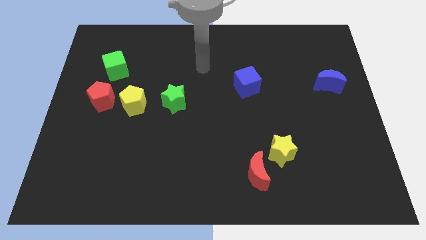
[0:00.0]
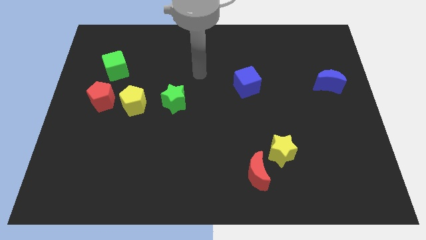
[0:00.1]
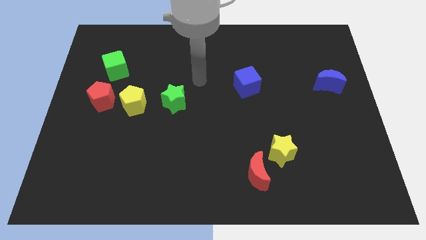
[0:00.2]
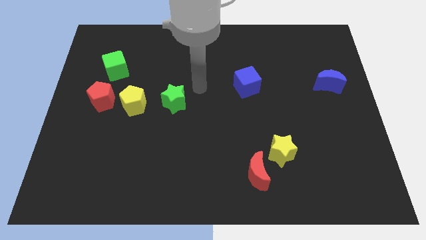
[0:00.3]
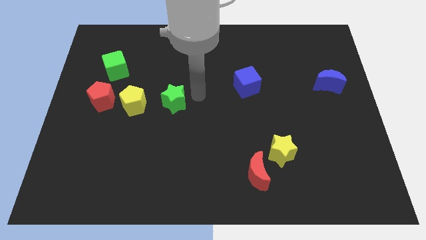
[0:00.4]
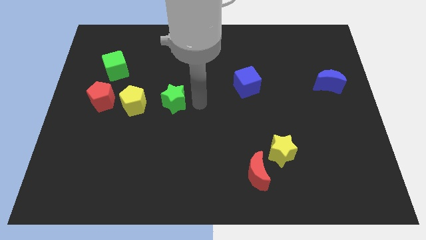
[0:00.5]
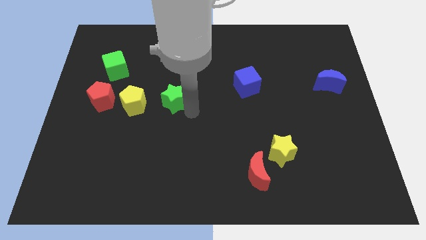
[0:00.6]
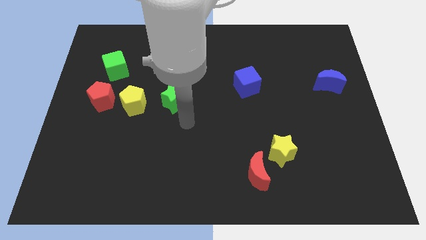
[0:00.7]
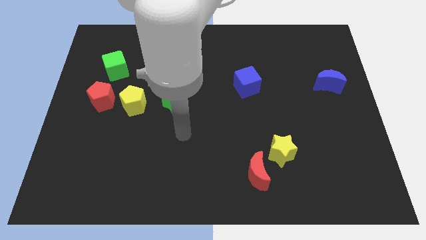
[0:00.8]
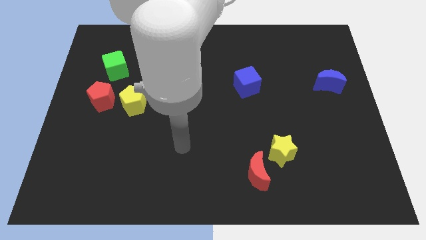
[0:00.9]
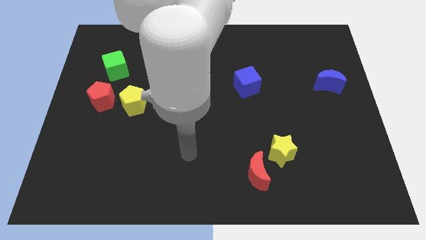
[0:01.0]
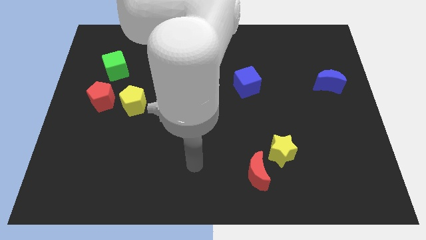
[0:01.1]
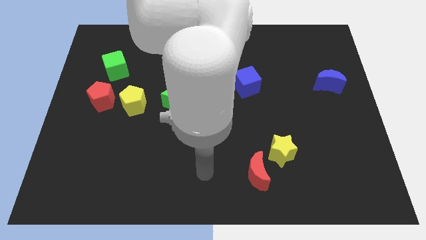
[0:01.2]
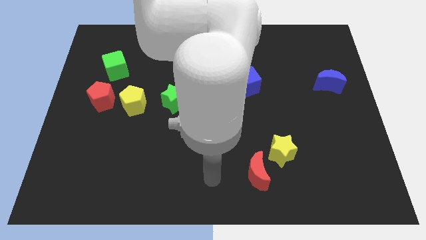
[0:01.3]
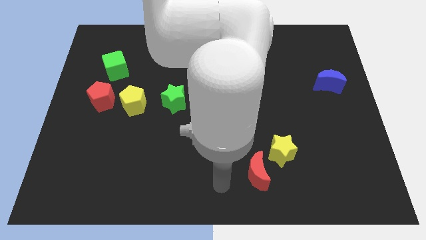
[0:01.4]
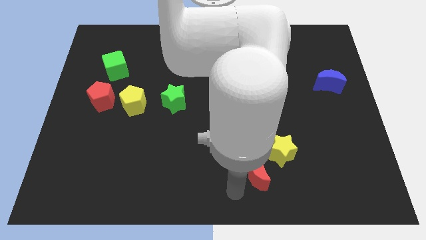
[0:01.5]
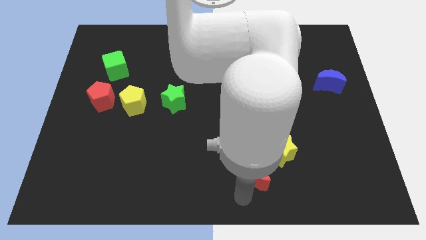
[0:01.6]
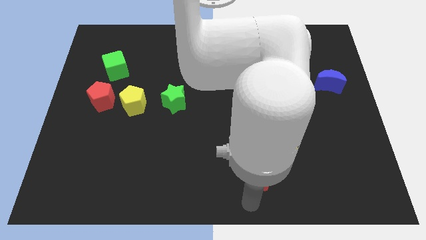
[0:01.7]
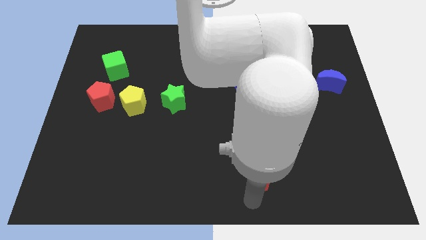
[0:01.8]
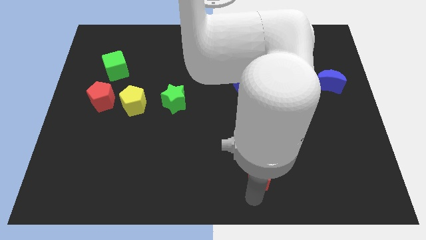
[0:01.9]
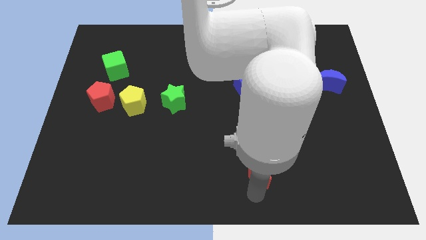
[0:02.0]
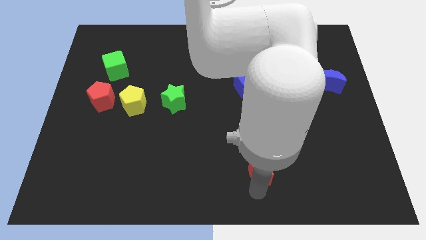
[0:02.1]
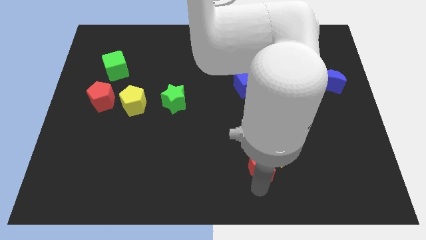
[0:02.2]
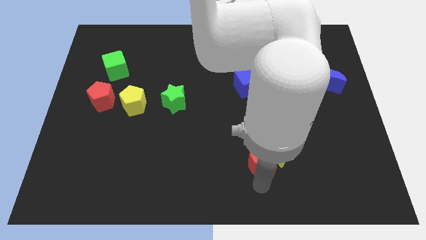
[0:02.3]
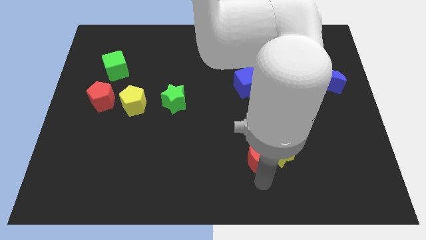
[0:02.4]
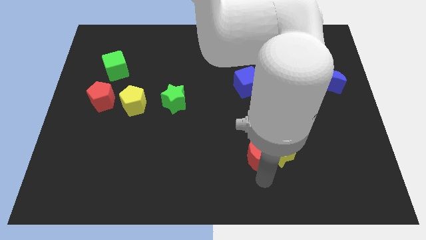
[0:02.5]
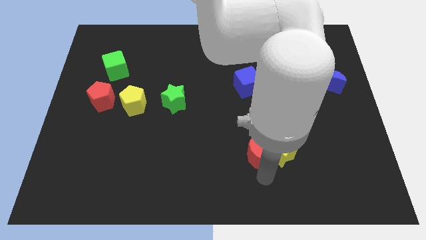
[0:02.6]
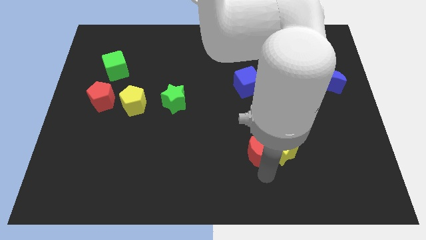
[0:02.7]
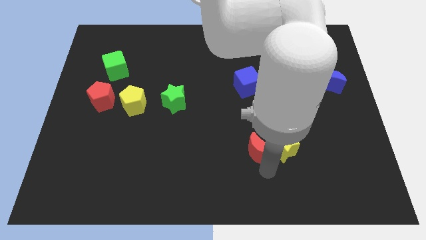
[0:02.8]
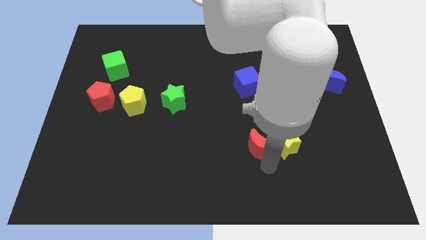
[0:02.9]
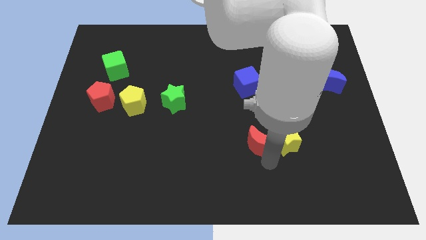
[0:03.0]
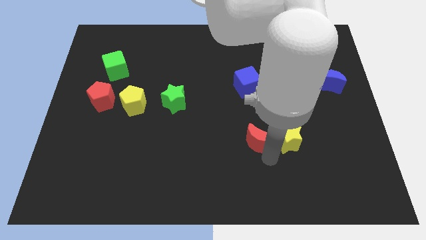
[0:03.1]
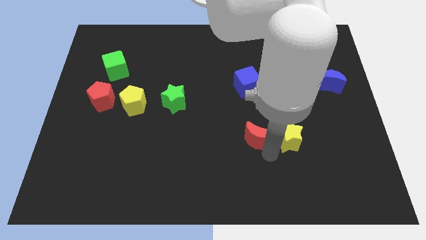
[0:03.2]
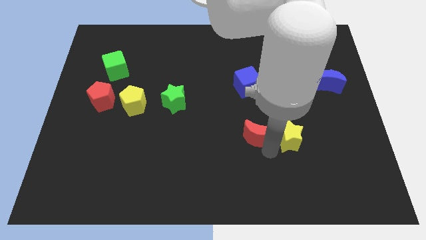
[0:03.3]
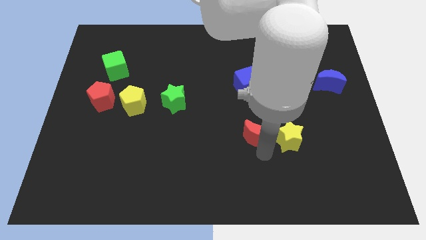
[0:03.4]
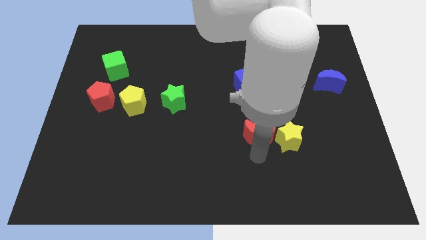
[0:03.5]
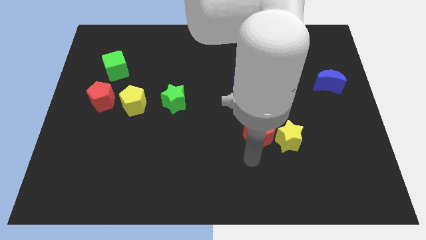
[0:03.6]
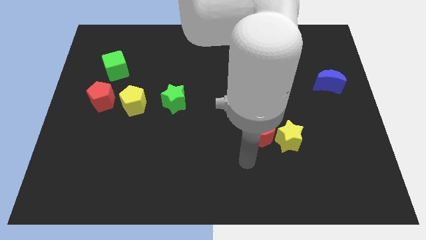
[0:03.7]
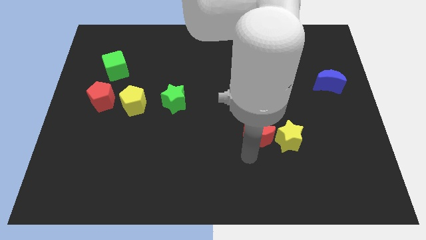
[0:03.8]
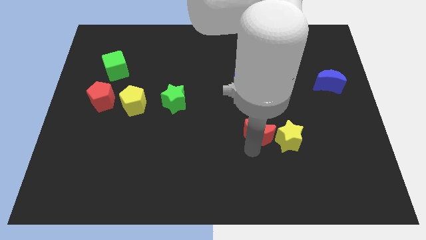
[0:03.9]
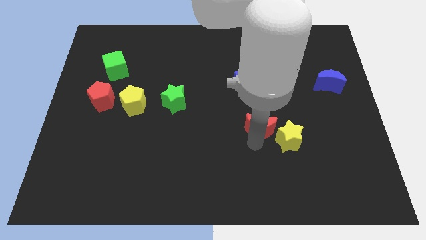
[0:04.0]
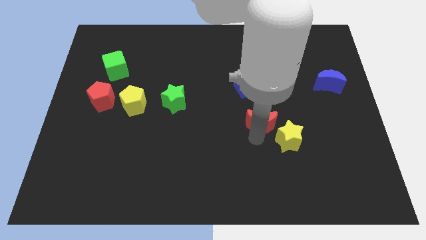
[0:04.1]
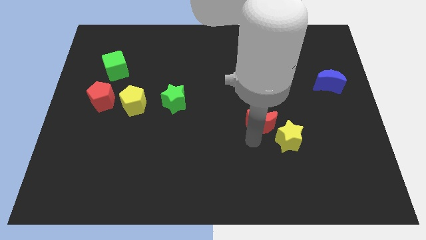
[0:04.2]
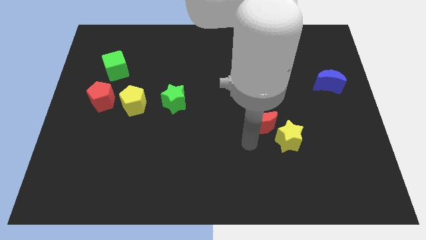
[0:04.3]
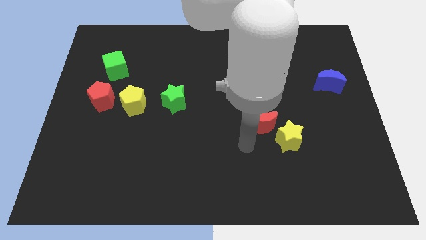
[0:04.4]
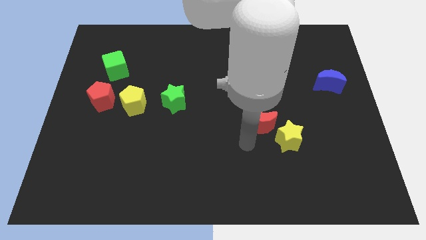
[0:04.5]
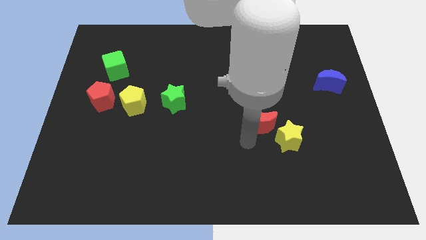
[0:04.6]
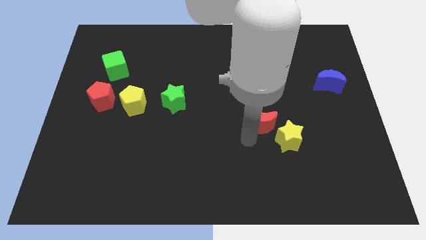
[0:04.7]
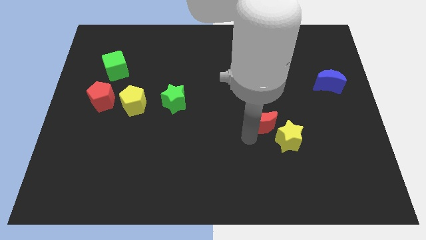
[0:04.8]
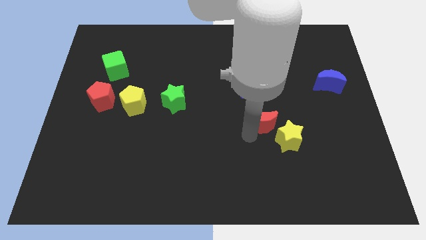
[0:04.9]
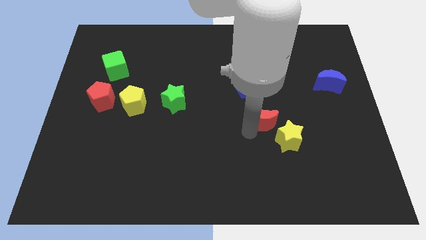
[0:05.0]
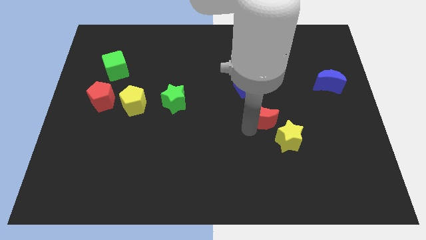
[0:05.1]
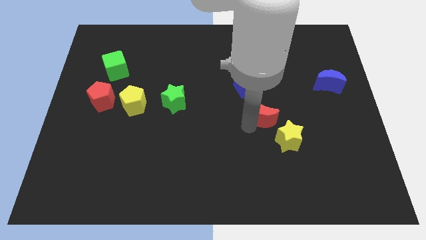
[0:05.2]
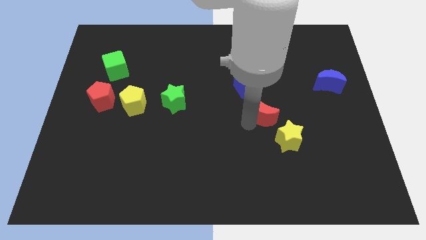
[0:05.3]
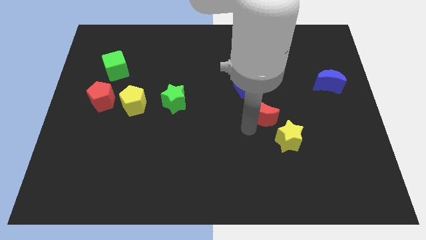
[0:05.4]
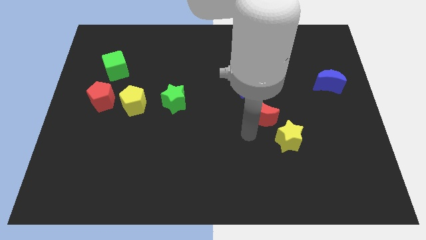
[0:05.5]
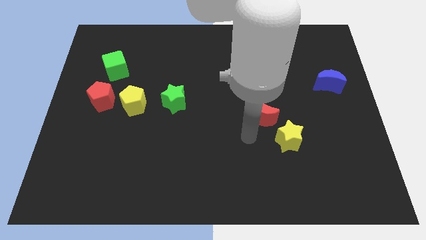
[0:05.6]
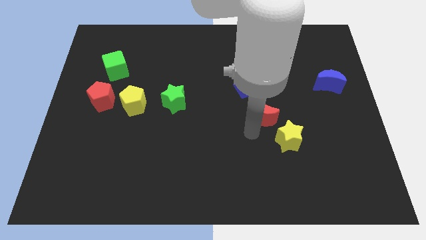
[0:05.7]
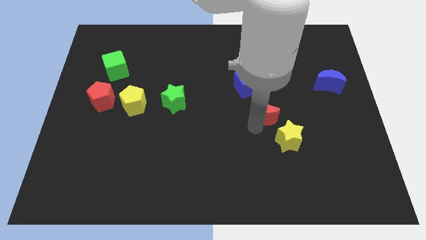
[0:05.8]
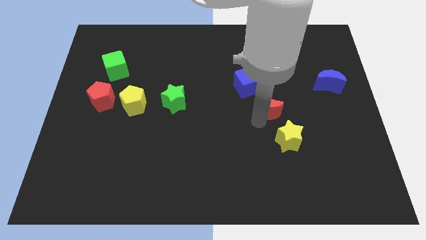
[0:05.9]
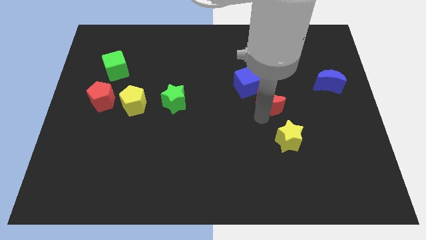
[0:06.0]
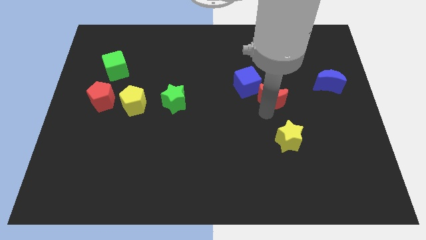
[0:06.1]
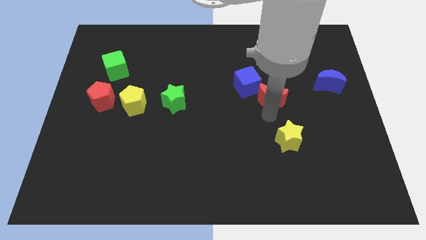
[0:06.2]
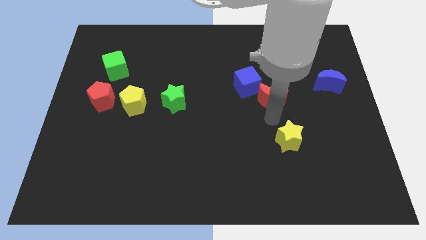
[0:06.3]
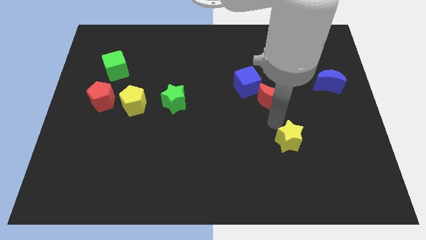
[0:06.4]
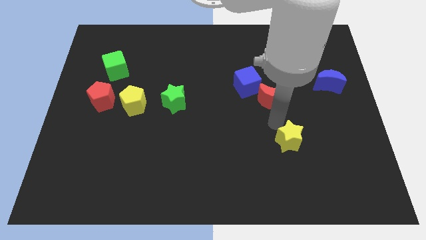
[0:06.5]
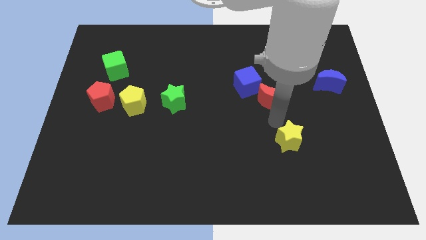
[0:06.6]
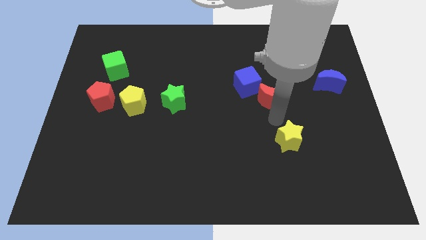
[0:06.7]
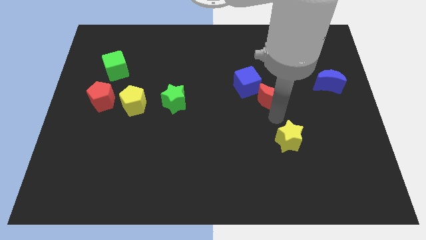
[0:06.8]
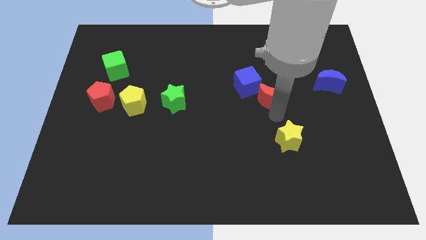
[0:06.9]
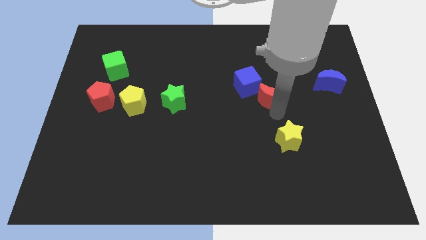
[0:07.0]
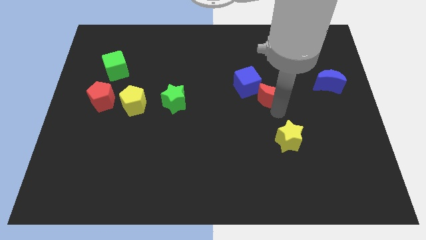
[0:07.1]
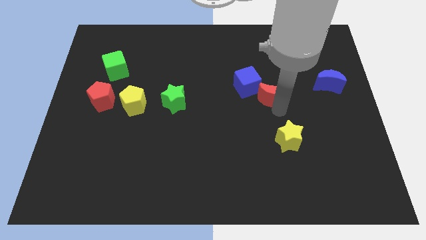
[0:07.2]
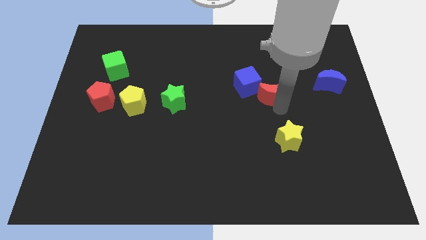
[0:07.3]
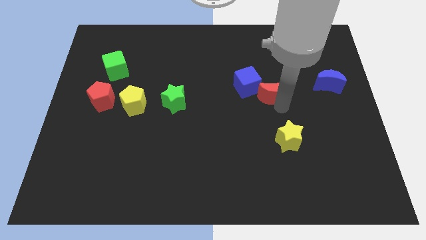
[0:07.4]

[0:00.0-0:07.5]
move the red moon upwards

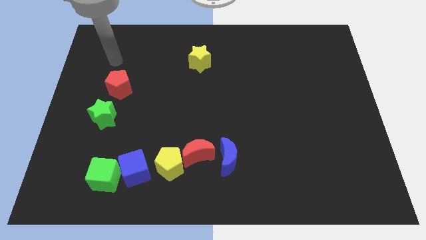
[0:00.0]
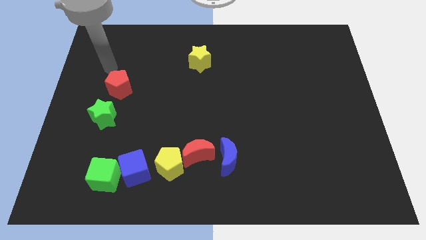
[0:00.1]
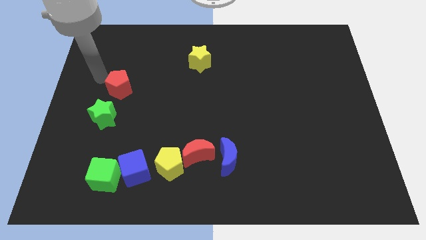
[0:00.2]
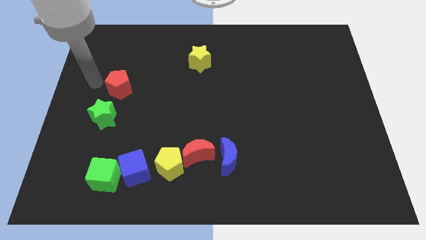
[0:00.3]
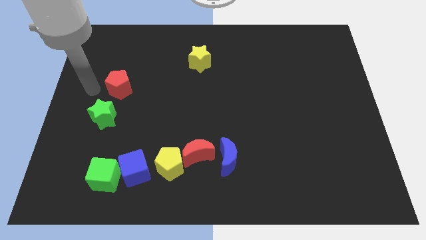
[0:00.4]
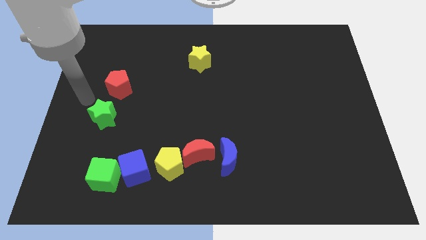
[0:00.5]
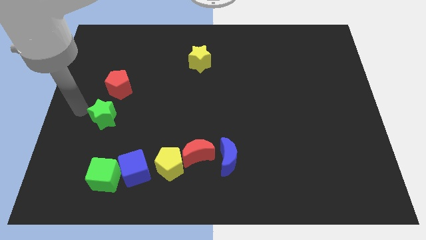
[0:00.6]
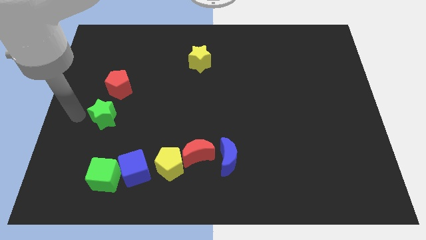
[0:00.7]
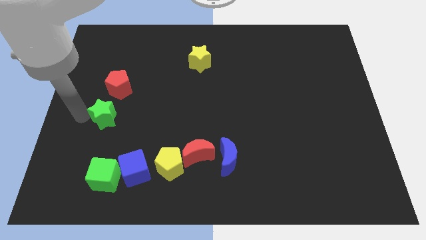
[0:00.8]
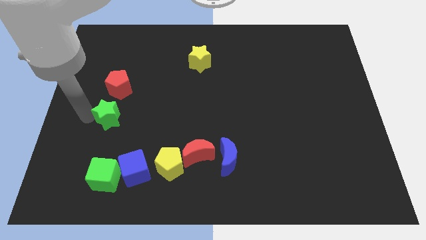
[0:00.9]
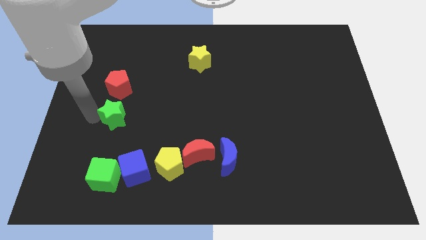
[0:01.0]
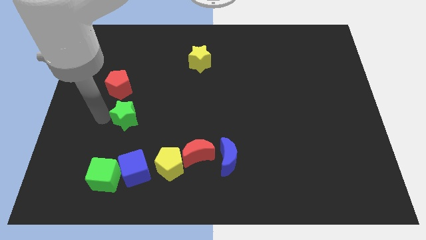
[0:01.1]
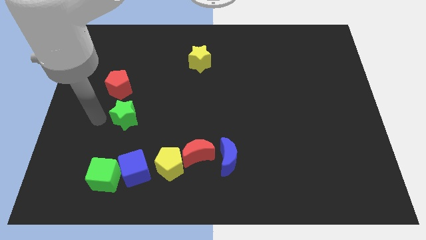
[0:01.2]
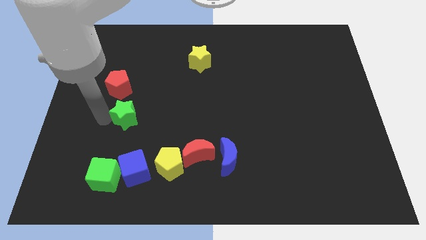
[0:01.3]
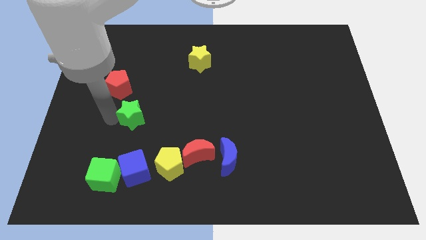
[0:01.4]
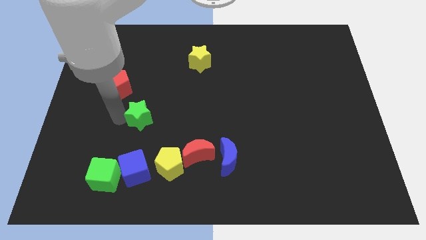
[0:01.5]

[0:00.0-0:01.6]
slightly slide the green star to the right
